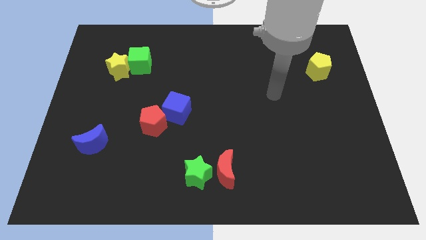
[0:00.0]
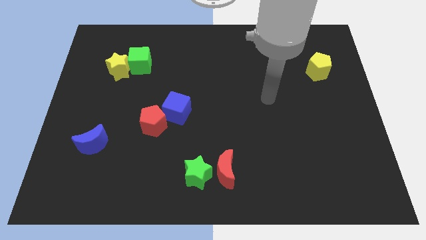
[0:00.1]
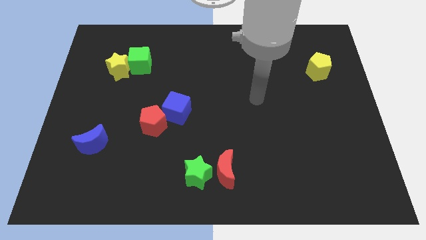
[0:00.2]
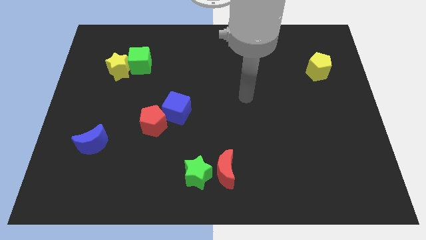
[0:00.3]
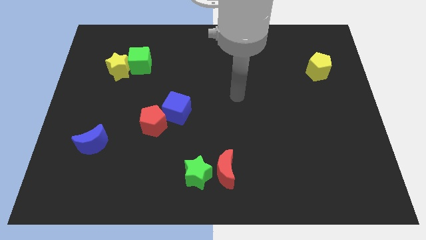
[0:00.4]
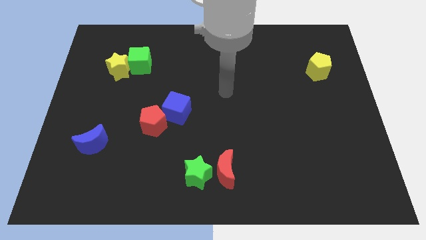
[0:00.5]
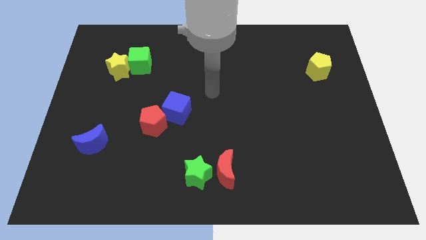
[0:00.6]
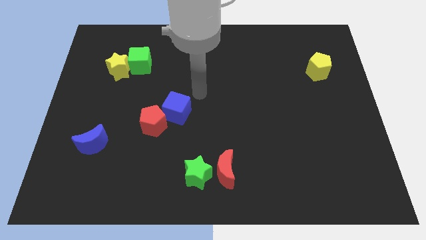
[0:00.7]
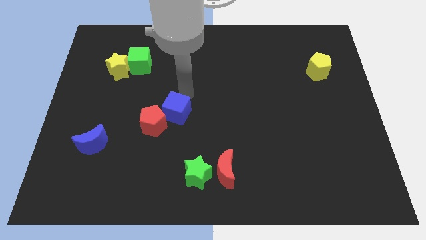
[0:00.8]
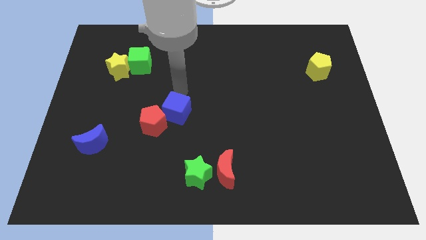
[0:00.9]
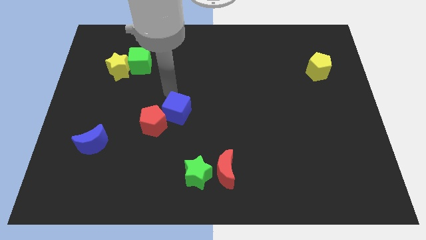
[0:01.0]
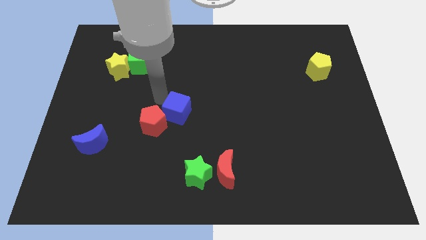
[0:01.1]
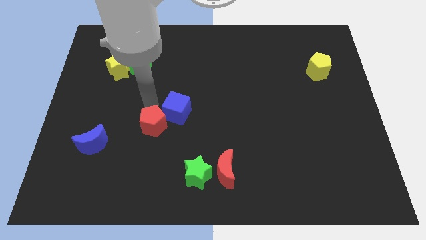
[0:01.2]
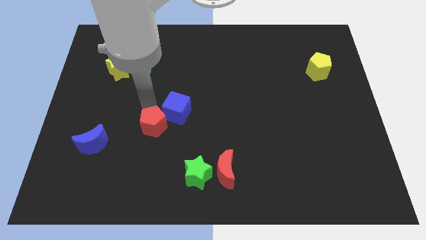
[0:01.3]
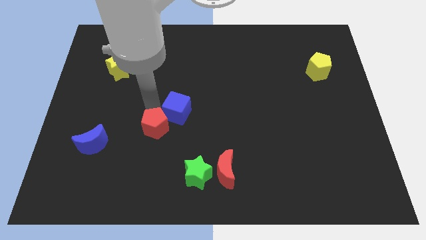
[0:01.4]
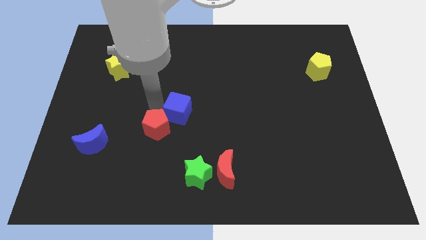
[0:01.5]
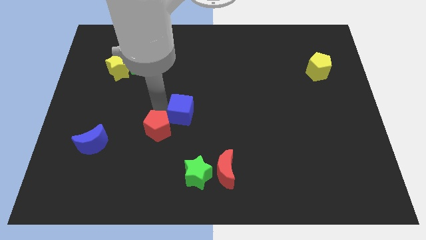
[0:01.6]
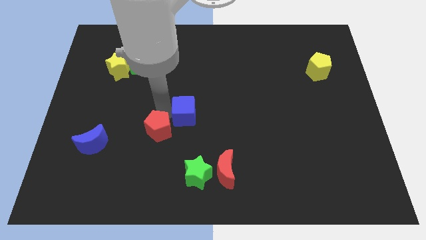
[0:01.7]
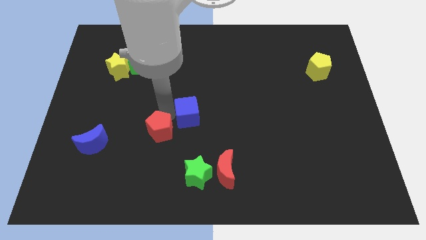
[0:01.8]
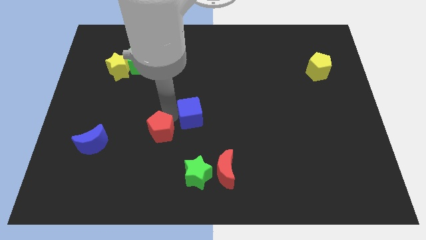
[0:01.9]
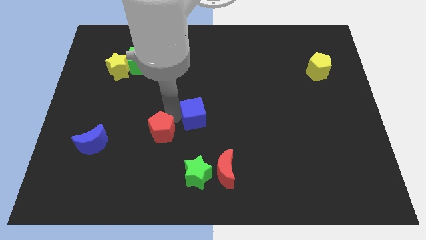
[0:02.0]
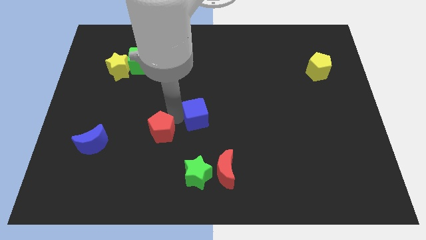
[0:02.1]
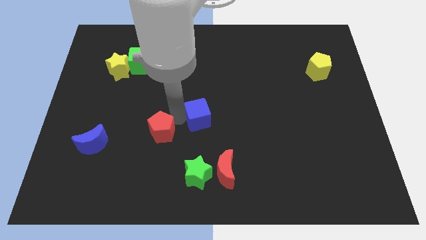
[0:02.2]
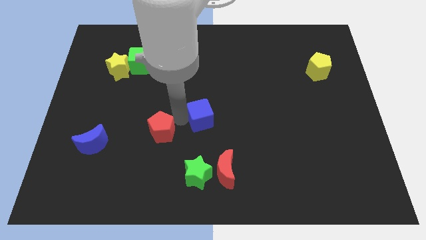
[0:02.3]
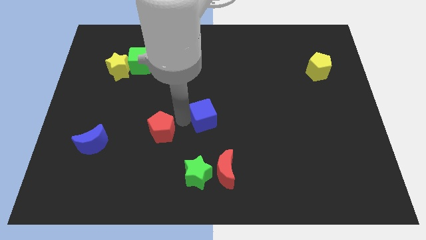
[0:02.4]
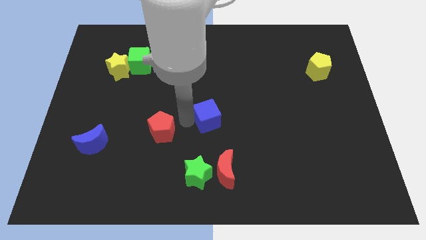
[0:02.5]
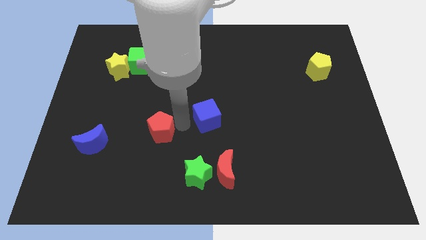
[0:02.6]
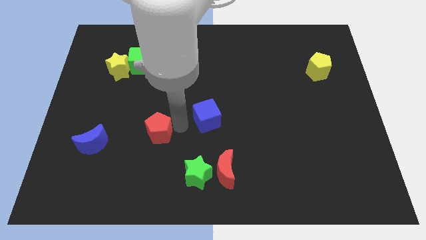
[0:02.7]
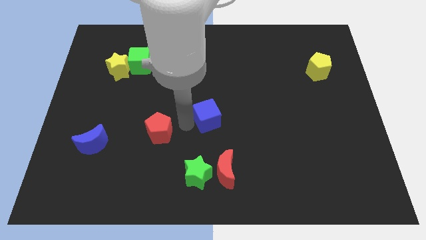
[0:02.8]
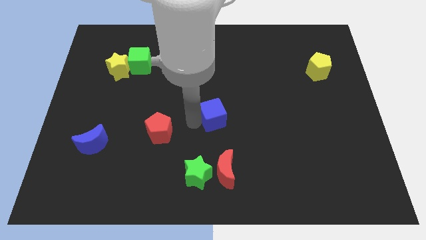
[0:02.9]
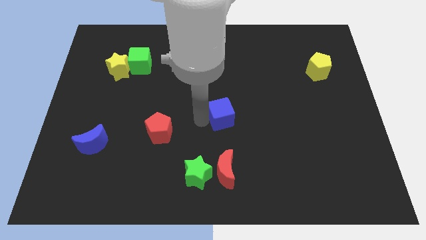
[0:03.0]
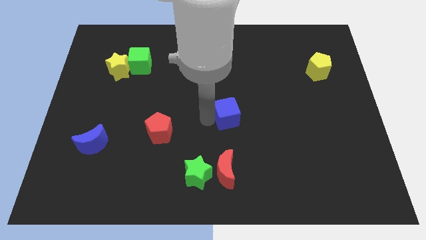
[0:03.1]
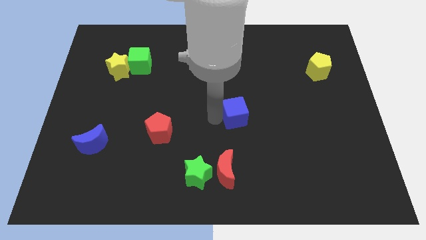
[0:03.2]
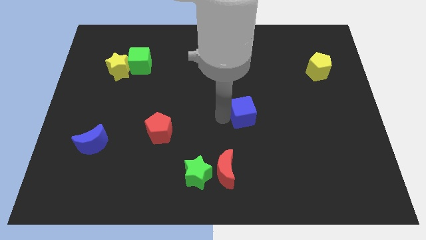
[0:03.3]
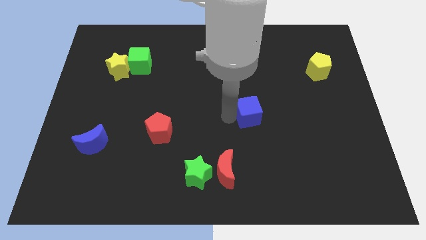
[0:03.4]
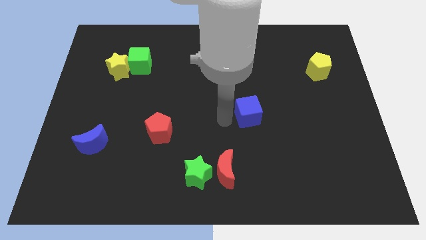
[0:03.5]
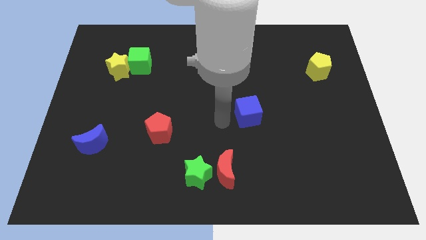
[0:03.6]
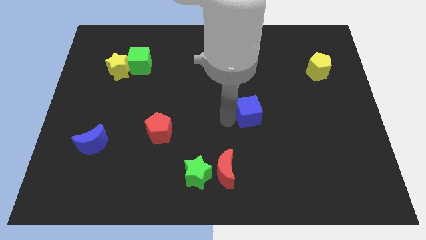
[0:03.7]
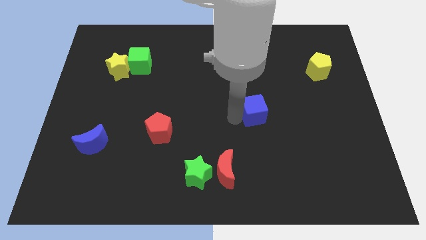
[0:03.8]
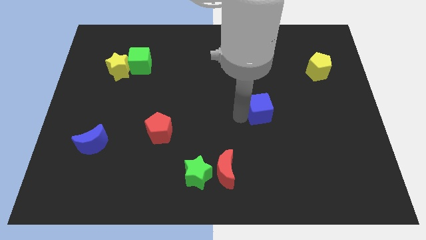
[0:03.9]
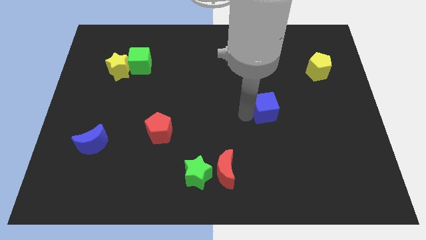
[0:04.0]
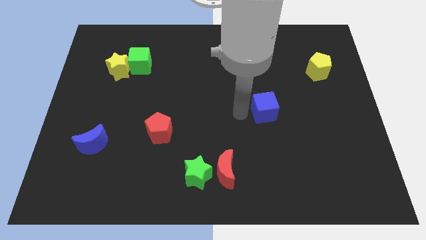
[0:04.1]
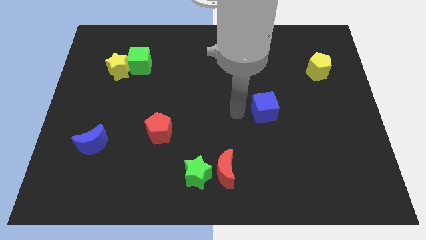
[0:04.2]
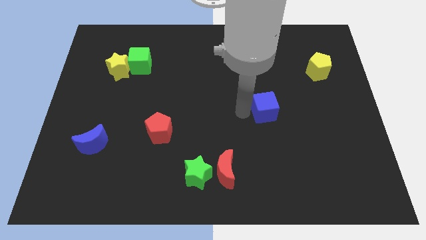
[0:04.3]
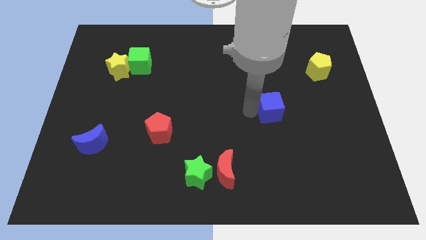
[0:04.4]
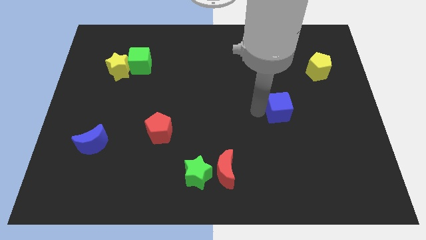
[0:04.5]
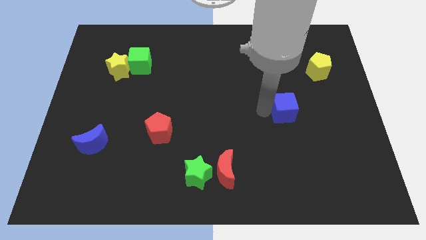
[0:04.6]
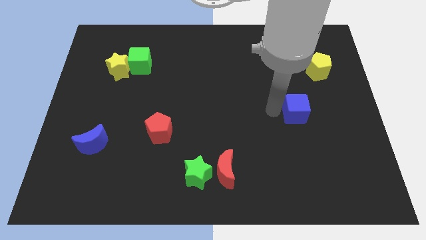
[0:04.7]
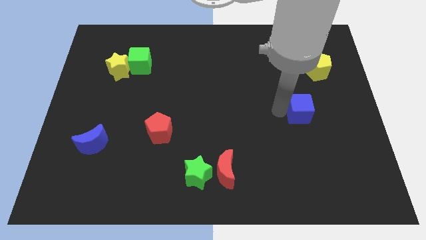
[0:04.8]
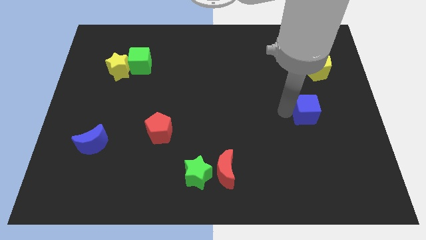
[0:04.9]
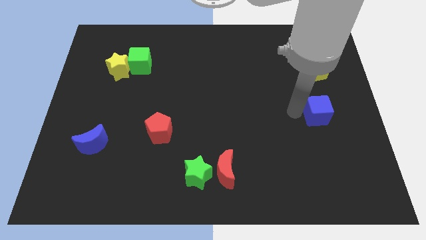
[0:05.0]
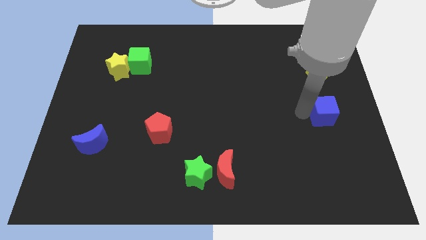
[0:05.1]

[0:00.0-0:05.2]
push the blue cube to the center right

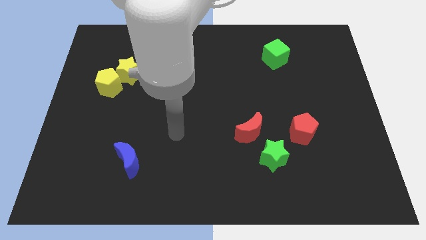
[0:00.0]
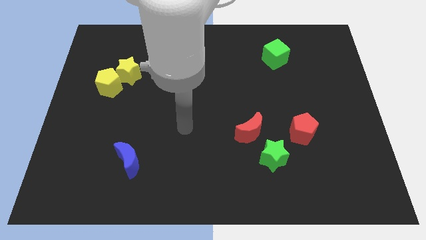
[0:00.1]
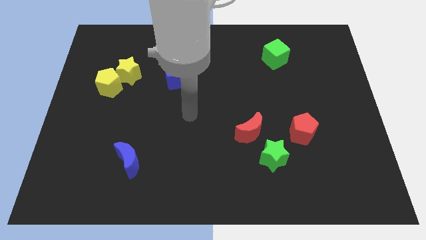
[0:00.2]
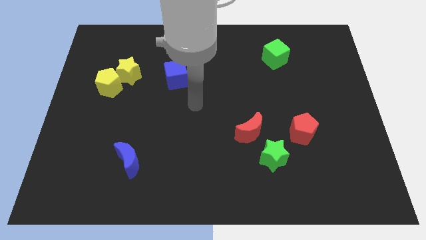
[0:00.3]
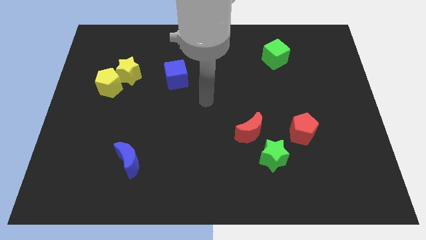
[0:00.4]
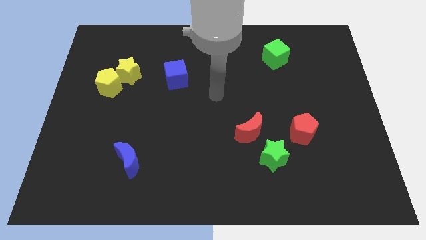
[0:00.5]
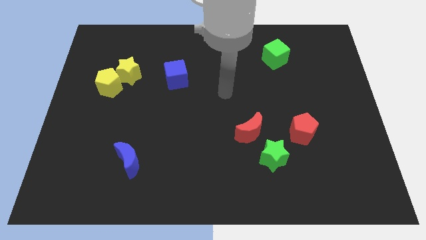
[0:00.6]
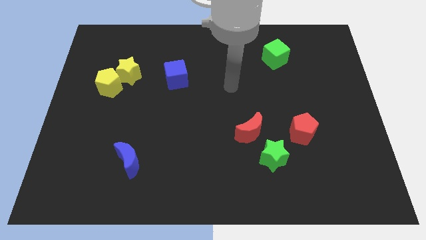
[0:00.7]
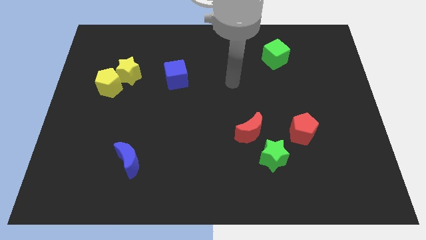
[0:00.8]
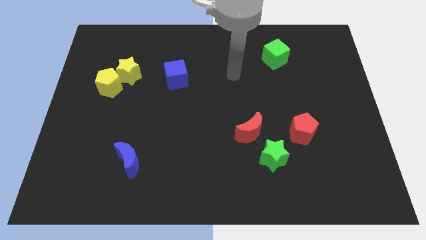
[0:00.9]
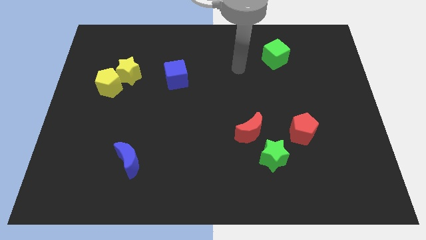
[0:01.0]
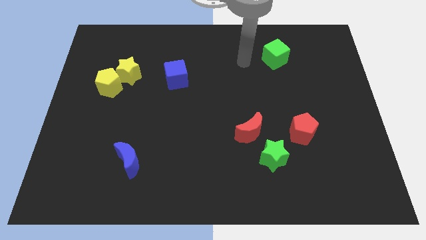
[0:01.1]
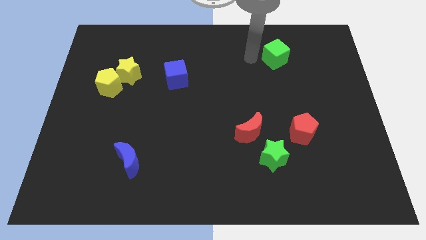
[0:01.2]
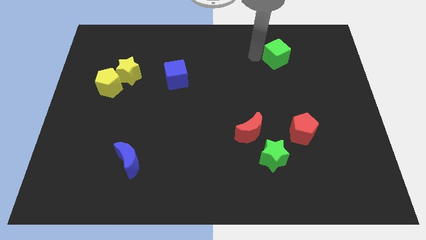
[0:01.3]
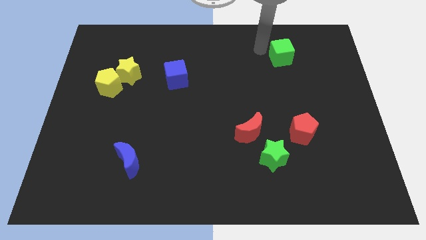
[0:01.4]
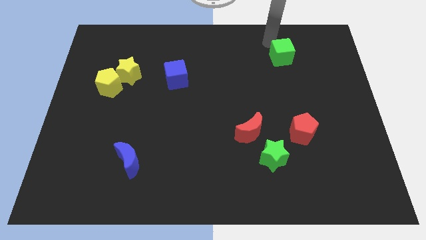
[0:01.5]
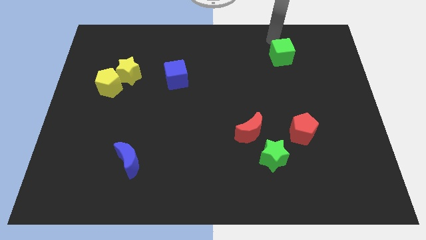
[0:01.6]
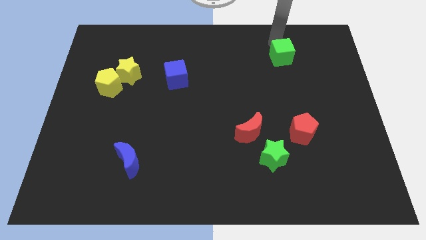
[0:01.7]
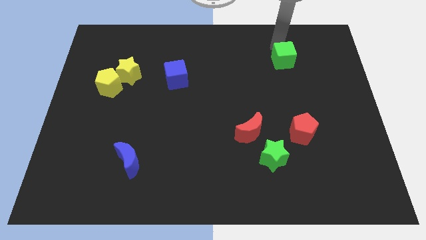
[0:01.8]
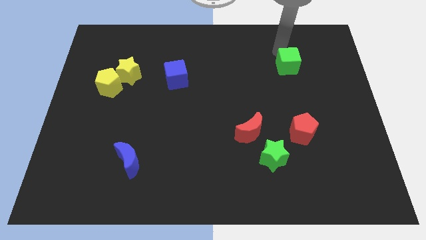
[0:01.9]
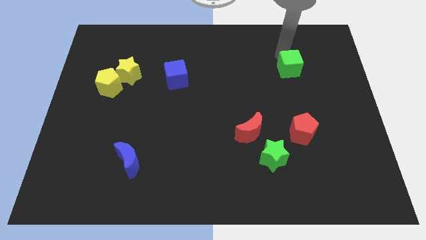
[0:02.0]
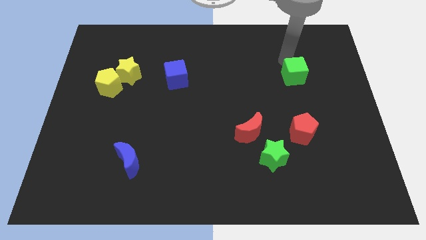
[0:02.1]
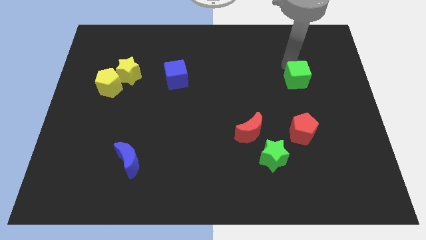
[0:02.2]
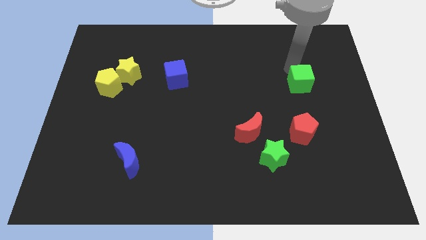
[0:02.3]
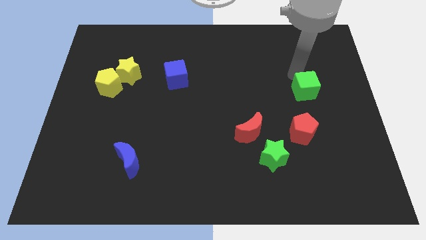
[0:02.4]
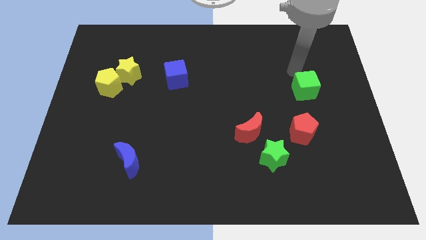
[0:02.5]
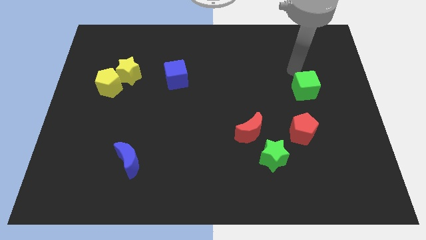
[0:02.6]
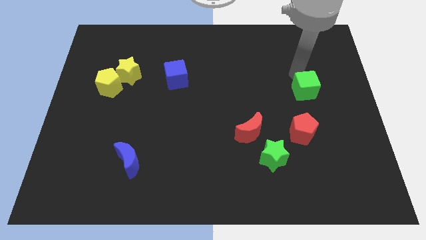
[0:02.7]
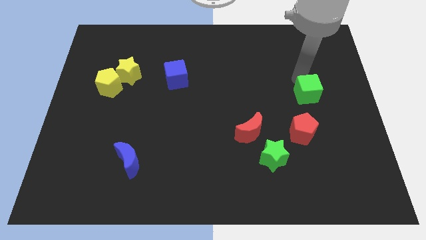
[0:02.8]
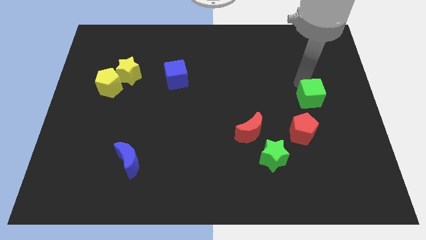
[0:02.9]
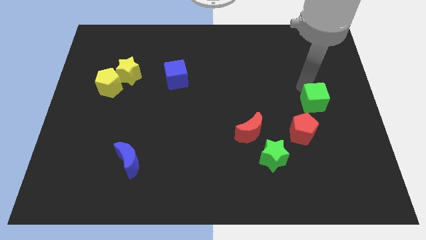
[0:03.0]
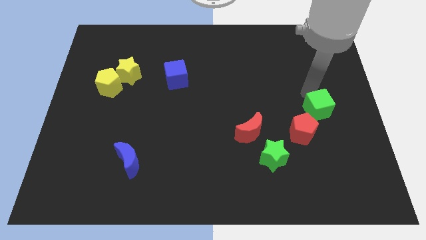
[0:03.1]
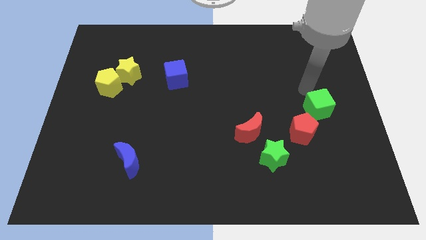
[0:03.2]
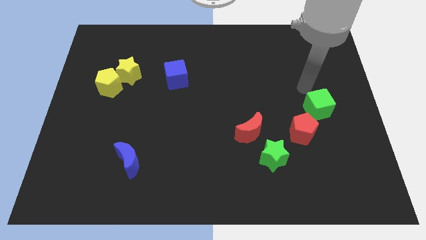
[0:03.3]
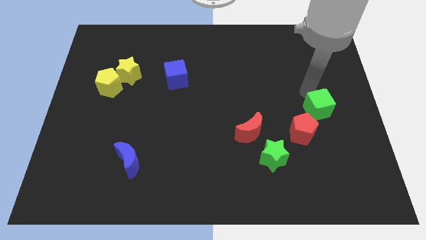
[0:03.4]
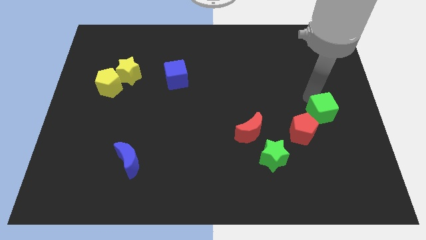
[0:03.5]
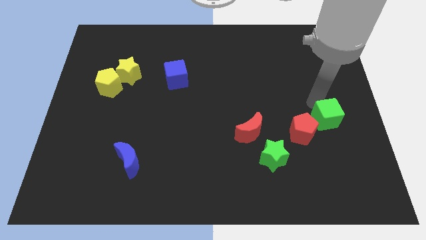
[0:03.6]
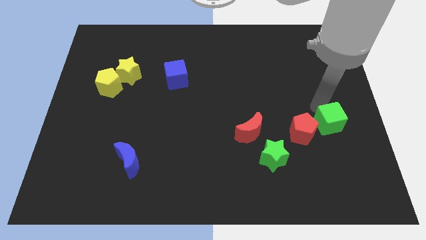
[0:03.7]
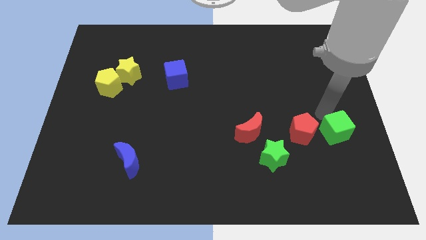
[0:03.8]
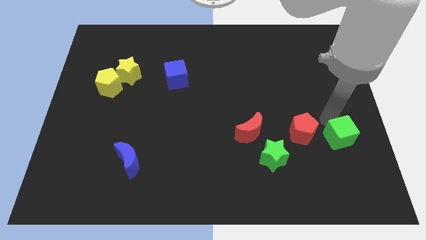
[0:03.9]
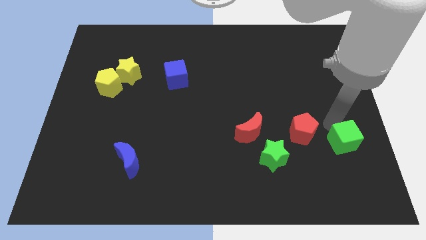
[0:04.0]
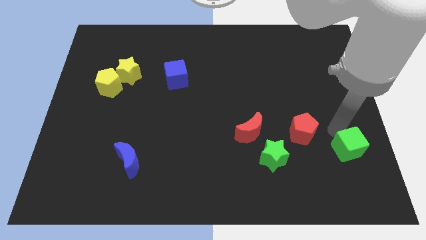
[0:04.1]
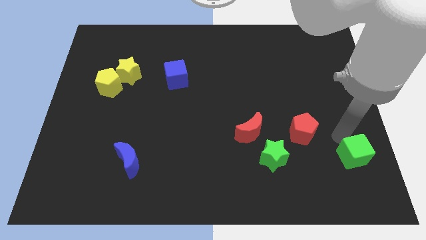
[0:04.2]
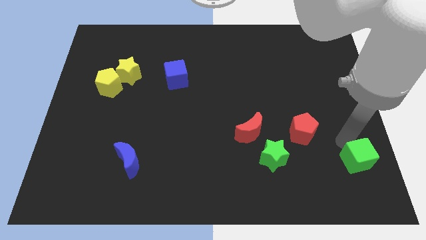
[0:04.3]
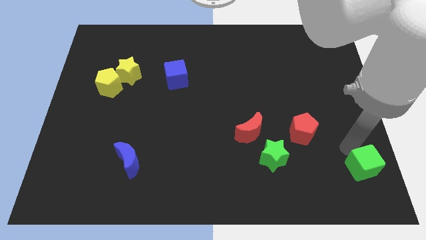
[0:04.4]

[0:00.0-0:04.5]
move the green cube to the bottom right corner
